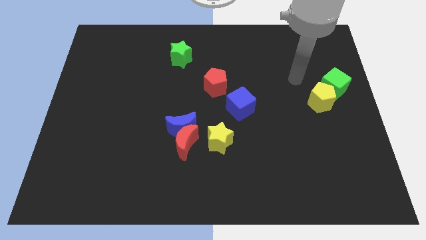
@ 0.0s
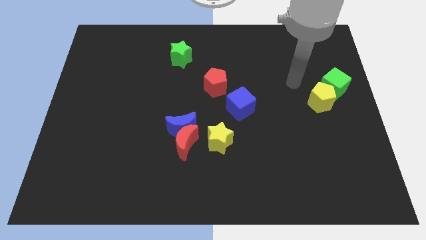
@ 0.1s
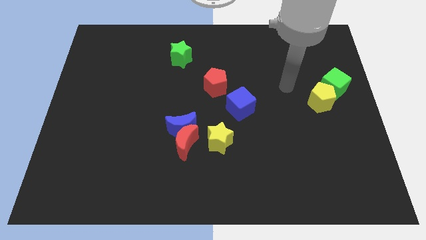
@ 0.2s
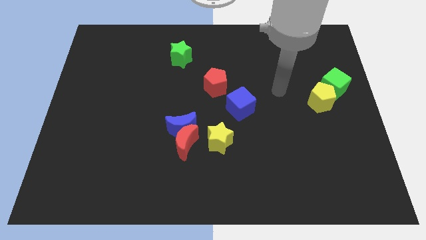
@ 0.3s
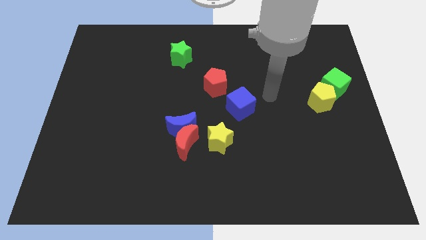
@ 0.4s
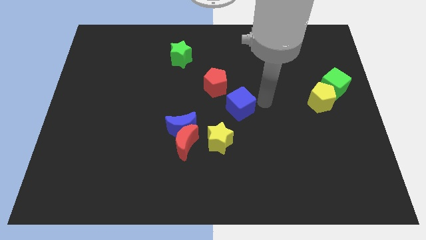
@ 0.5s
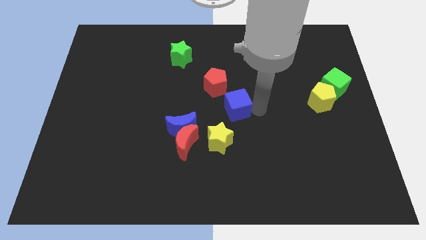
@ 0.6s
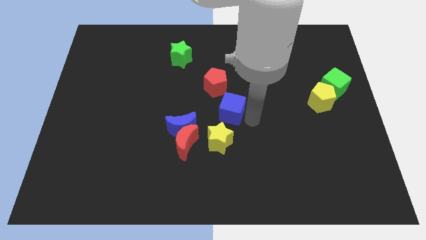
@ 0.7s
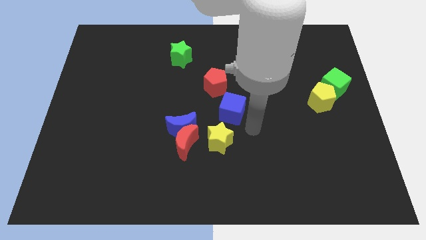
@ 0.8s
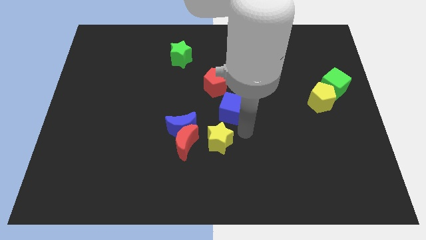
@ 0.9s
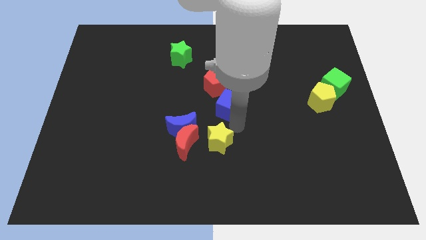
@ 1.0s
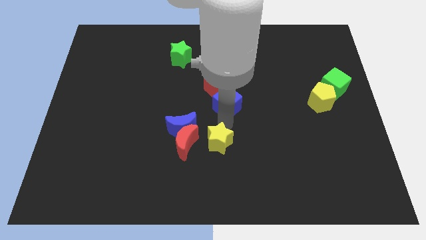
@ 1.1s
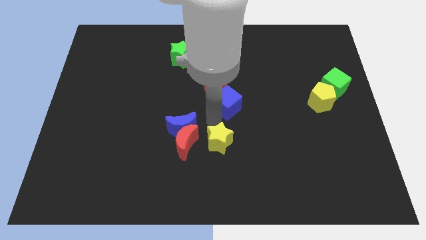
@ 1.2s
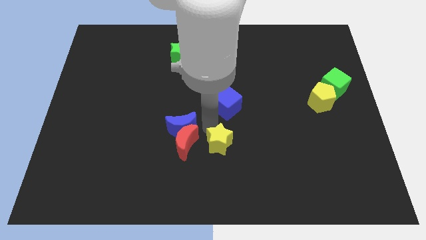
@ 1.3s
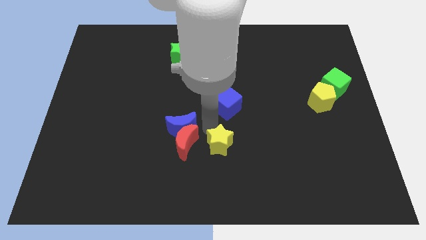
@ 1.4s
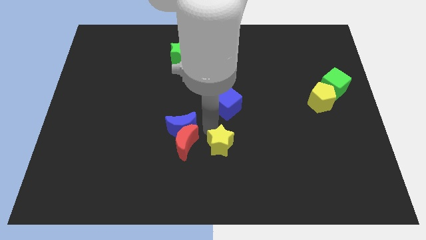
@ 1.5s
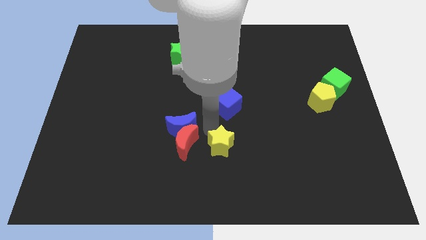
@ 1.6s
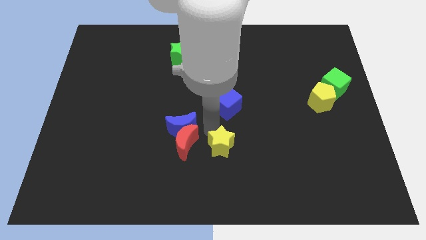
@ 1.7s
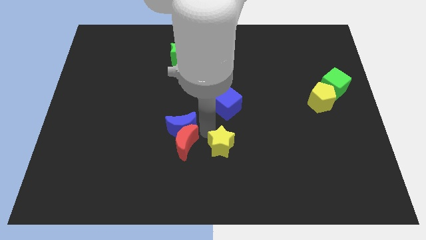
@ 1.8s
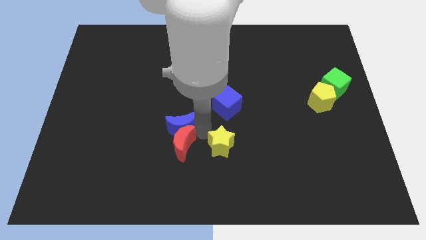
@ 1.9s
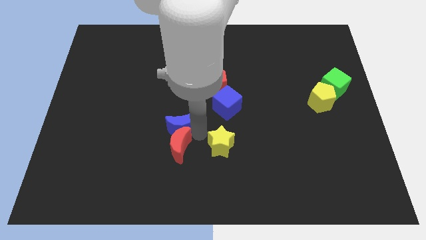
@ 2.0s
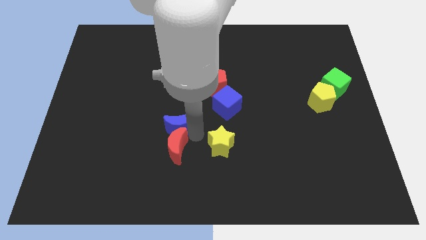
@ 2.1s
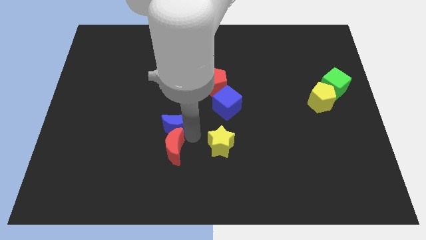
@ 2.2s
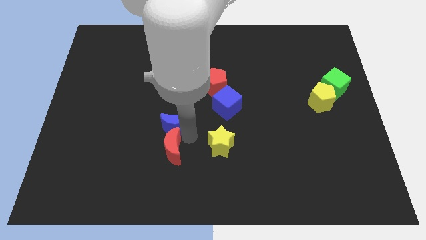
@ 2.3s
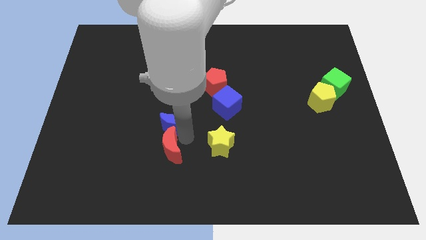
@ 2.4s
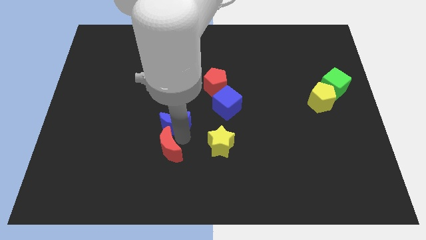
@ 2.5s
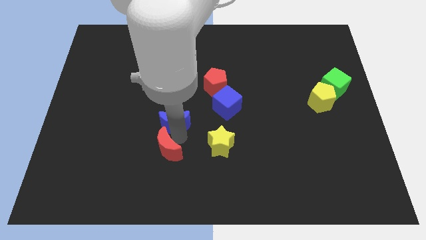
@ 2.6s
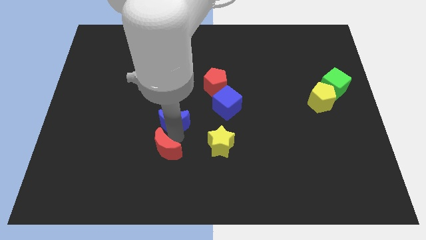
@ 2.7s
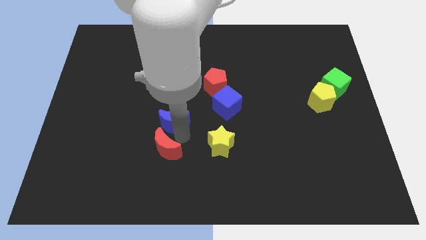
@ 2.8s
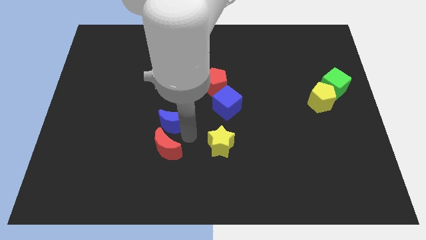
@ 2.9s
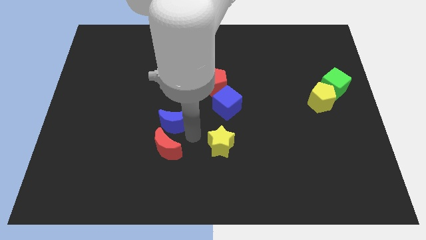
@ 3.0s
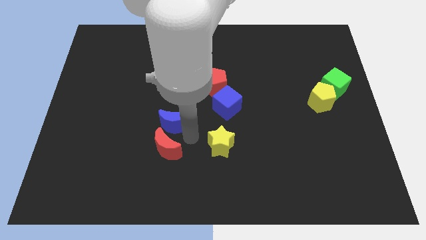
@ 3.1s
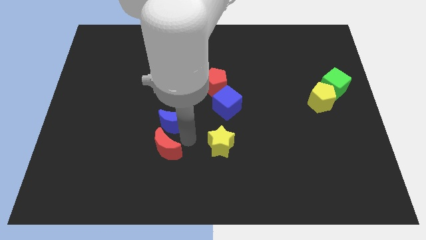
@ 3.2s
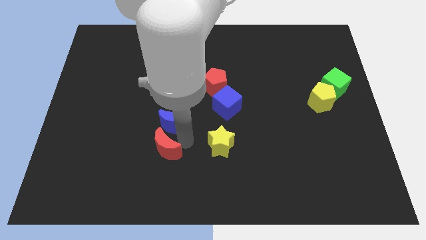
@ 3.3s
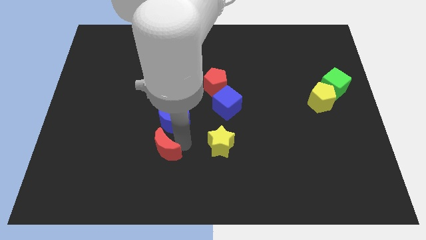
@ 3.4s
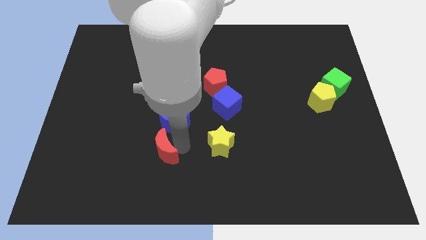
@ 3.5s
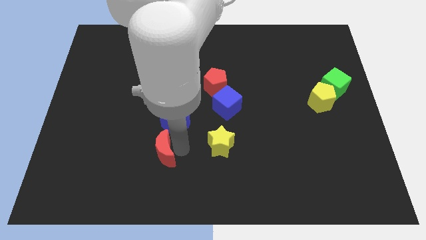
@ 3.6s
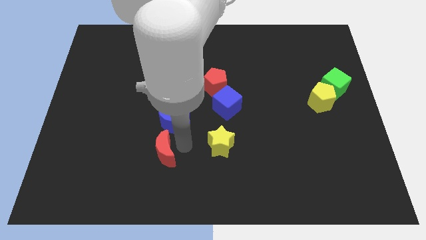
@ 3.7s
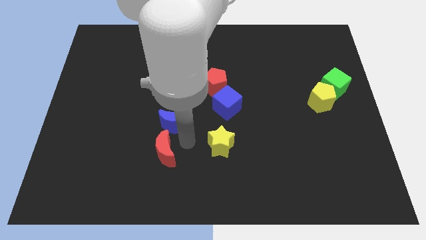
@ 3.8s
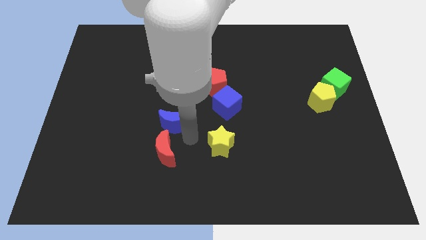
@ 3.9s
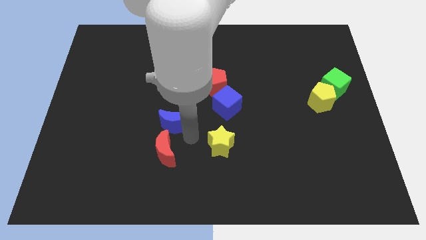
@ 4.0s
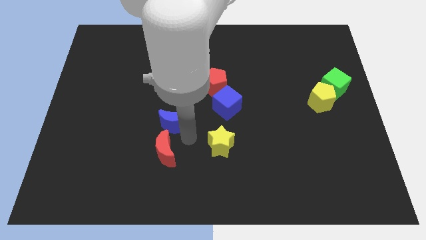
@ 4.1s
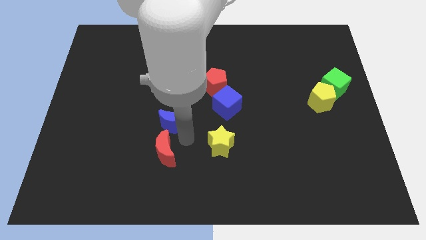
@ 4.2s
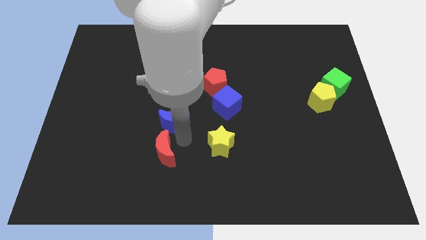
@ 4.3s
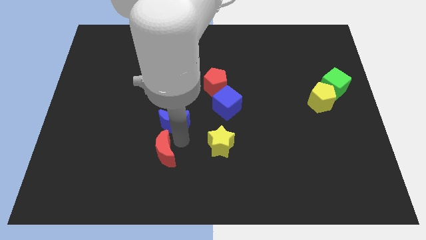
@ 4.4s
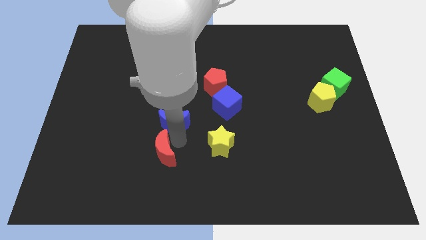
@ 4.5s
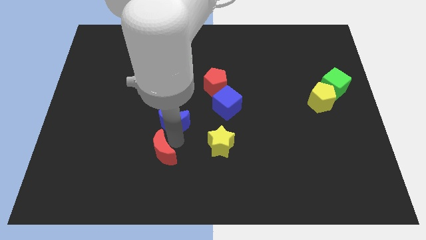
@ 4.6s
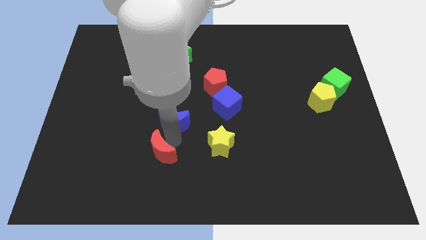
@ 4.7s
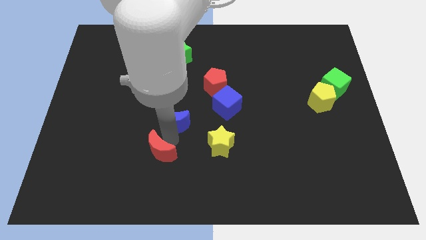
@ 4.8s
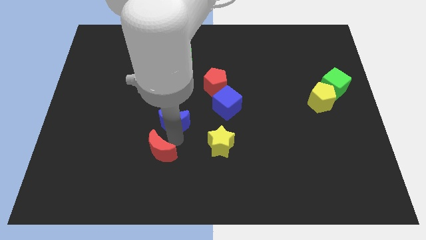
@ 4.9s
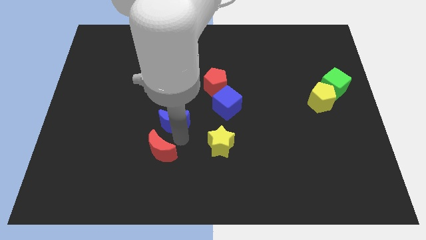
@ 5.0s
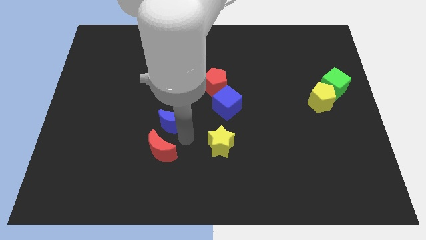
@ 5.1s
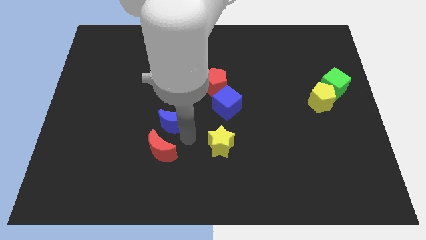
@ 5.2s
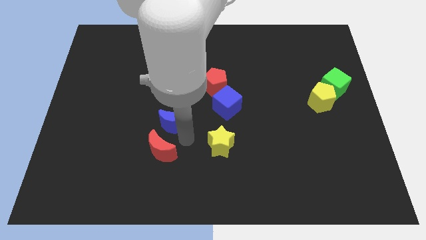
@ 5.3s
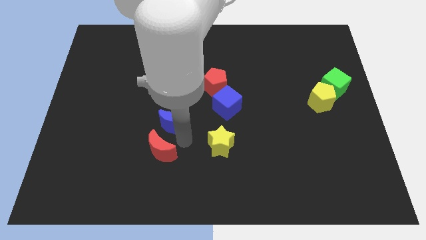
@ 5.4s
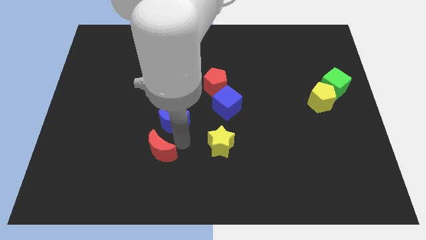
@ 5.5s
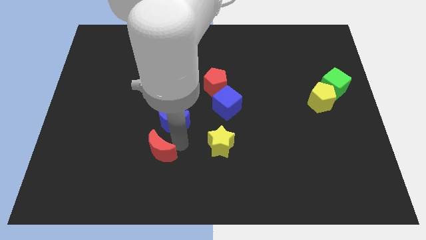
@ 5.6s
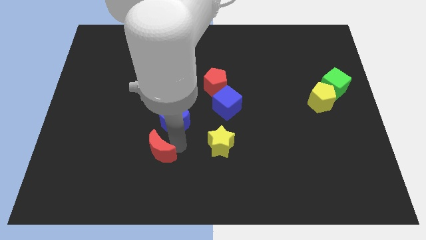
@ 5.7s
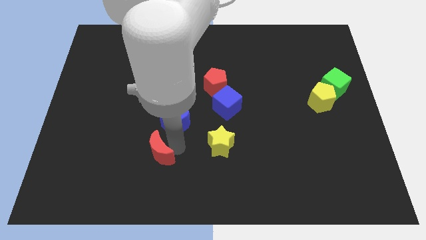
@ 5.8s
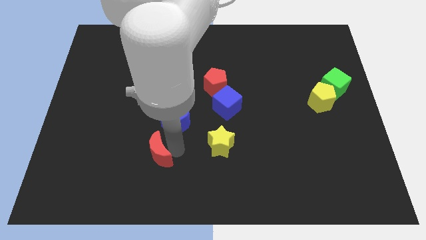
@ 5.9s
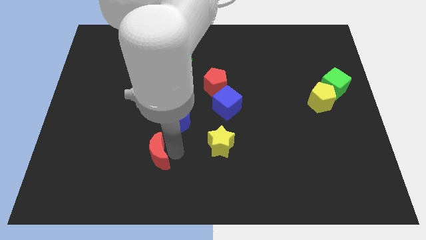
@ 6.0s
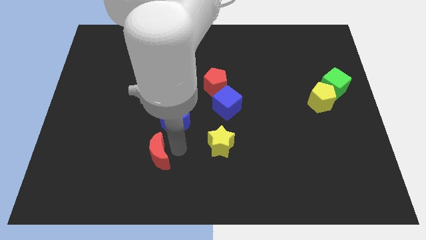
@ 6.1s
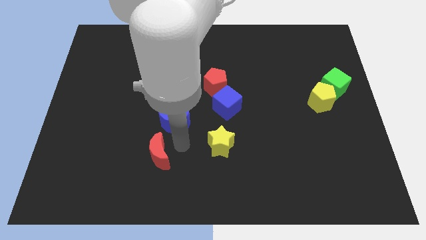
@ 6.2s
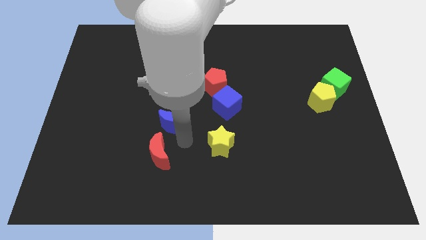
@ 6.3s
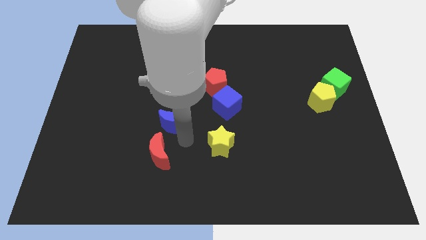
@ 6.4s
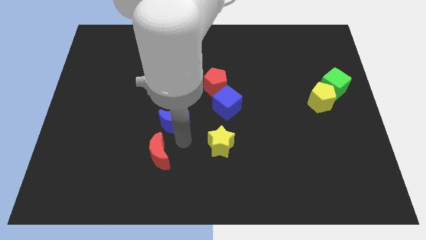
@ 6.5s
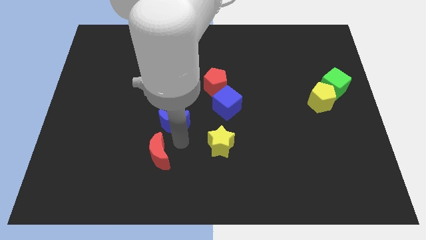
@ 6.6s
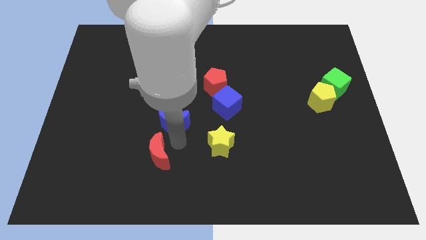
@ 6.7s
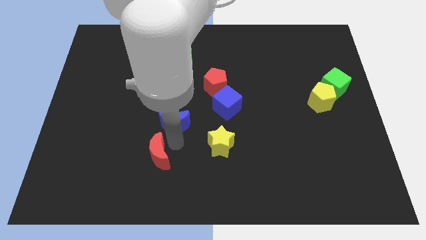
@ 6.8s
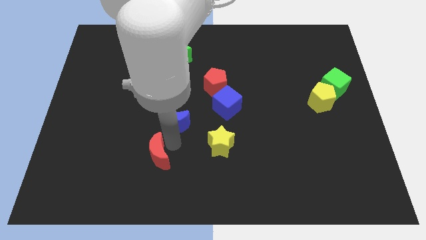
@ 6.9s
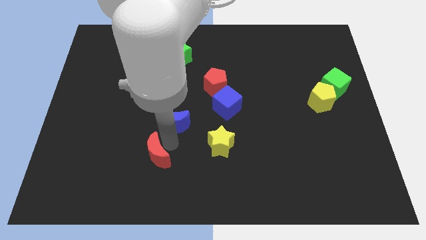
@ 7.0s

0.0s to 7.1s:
pull the red moon apart from the blue moon and yellow star

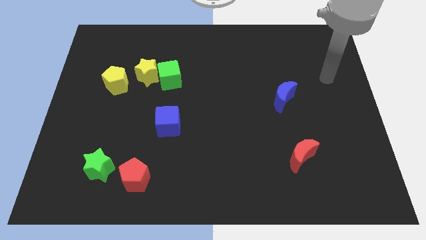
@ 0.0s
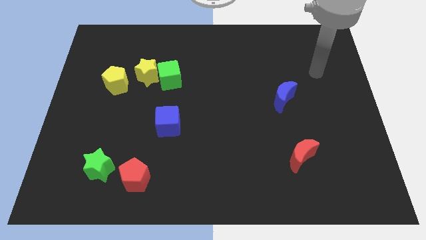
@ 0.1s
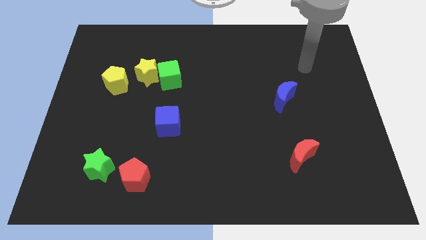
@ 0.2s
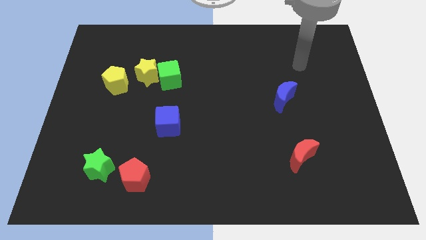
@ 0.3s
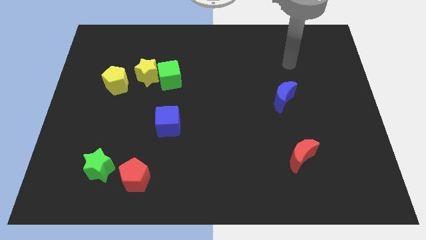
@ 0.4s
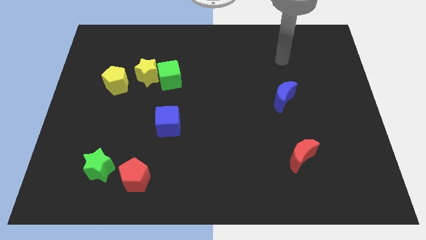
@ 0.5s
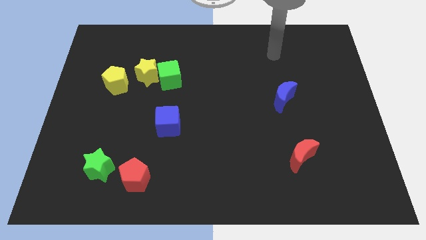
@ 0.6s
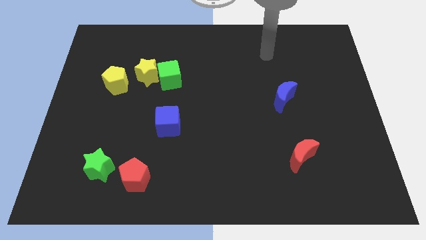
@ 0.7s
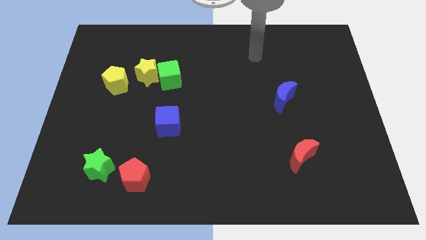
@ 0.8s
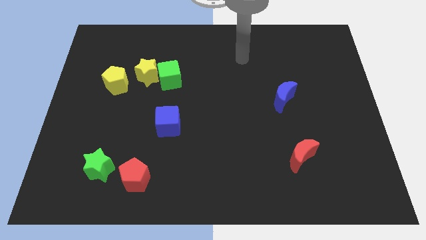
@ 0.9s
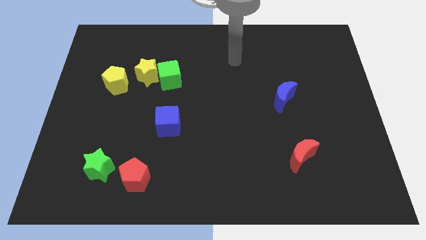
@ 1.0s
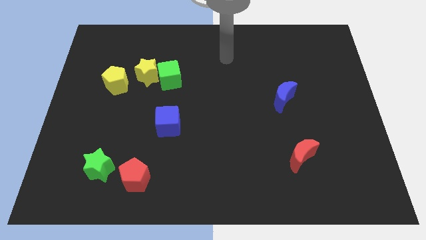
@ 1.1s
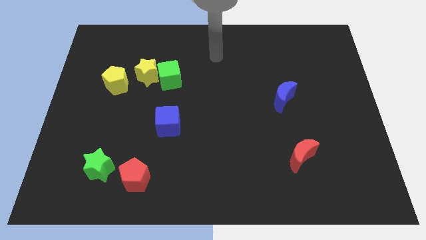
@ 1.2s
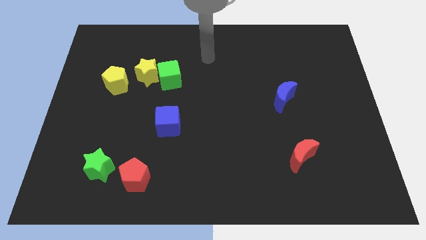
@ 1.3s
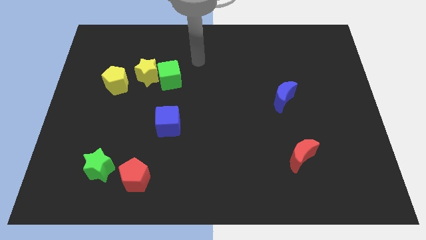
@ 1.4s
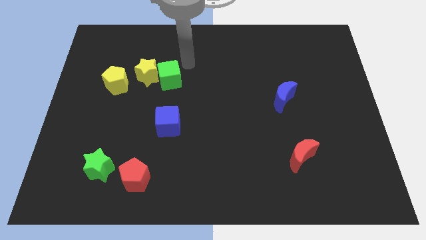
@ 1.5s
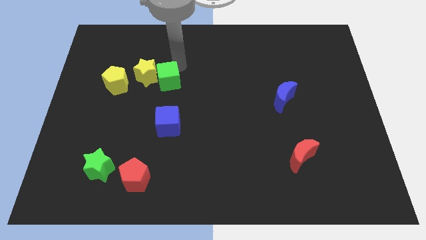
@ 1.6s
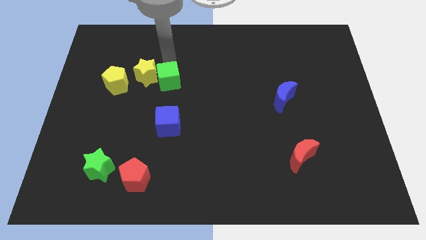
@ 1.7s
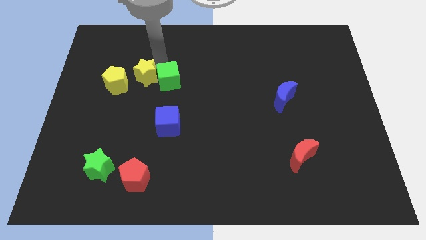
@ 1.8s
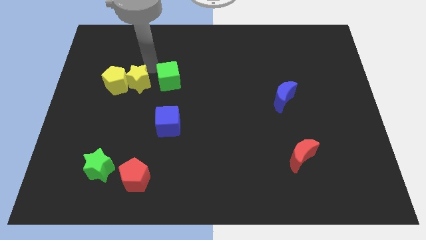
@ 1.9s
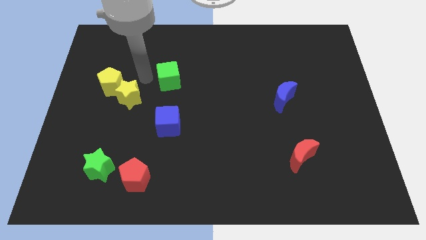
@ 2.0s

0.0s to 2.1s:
pull the green cube apart from the yellow star
